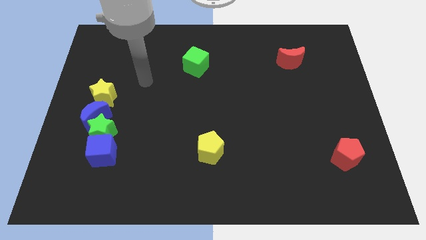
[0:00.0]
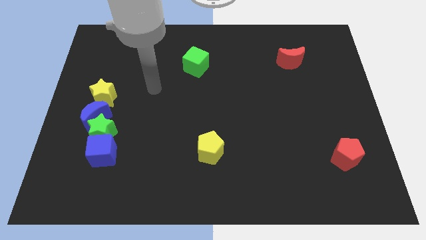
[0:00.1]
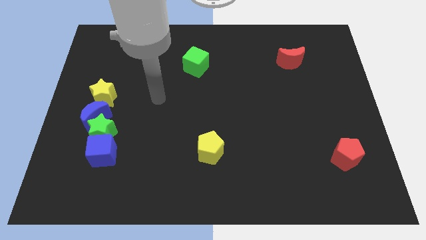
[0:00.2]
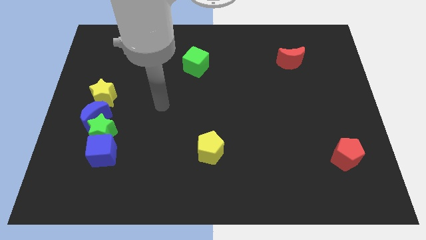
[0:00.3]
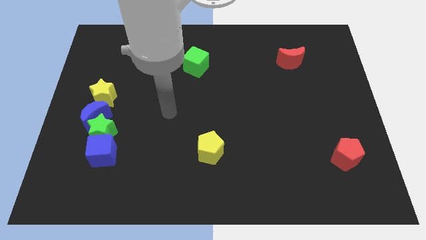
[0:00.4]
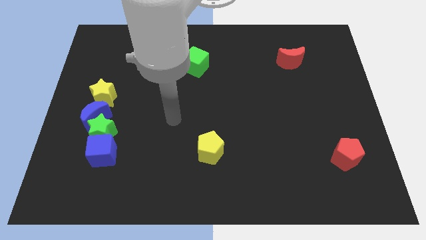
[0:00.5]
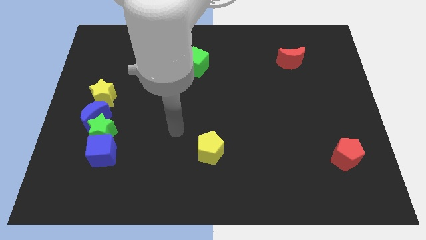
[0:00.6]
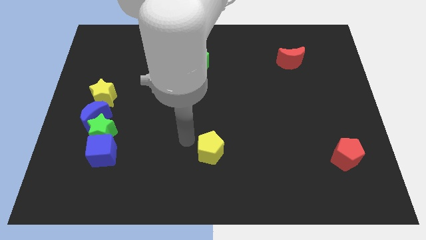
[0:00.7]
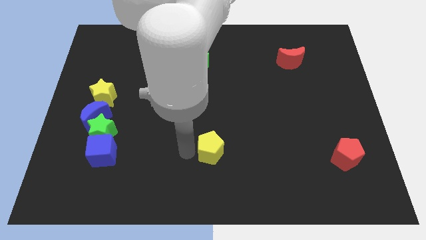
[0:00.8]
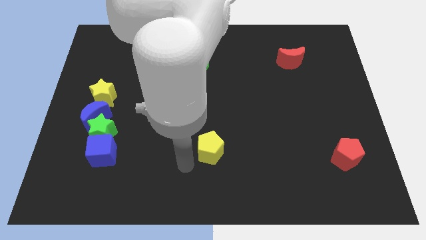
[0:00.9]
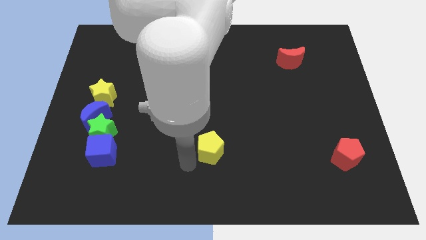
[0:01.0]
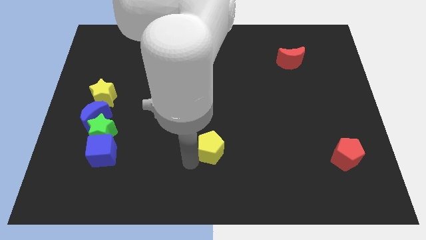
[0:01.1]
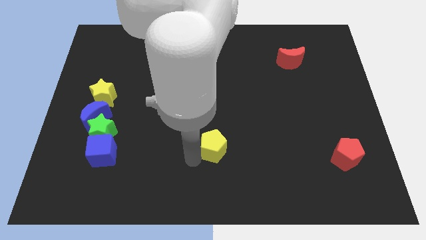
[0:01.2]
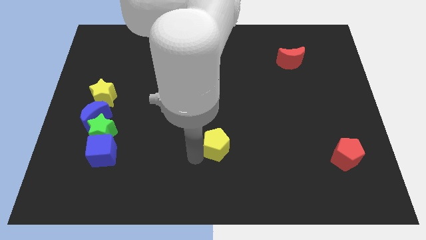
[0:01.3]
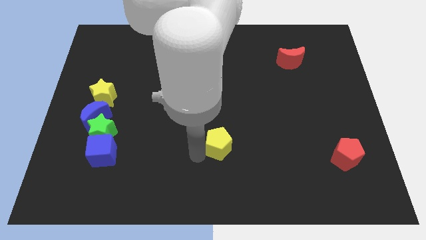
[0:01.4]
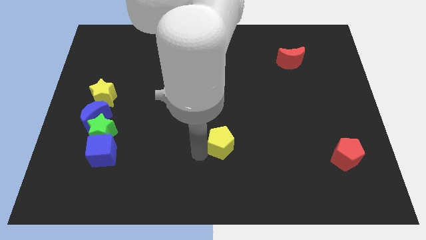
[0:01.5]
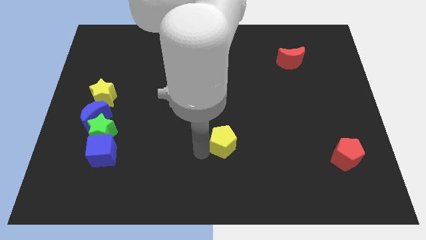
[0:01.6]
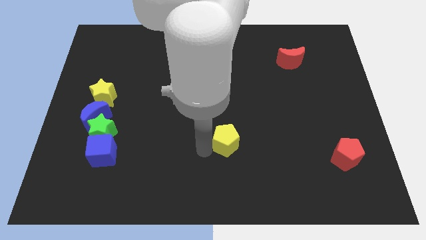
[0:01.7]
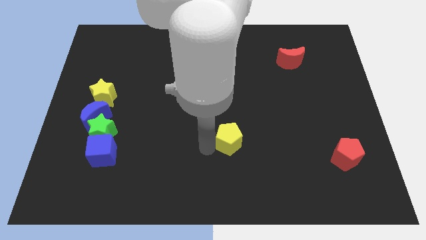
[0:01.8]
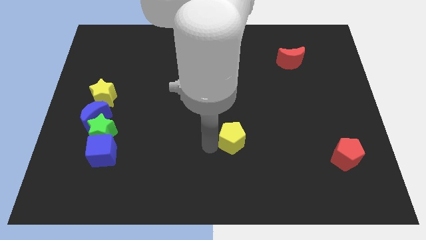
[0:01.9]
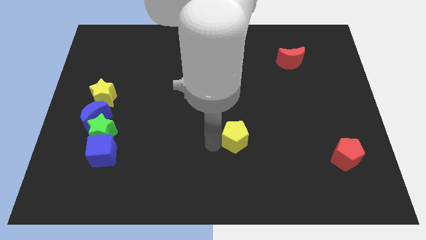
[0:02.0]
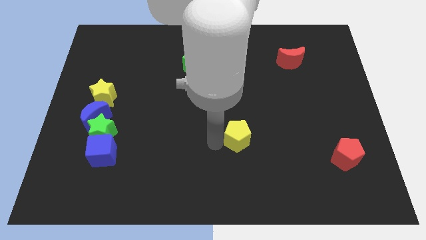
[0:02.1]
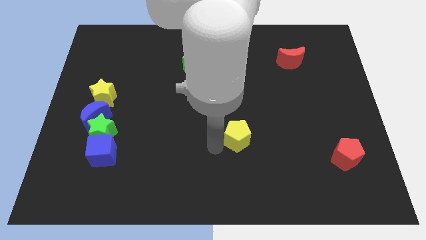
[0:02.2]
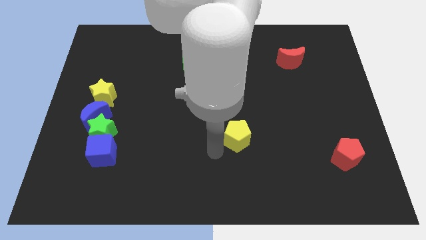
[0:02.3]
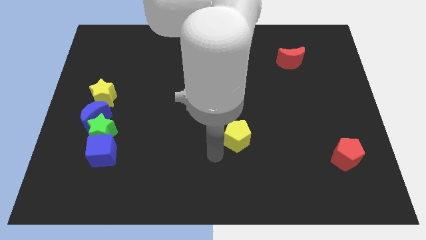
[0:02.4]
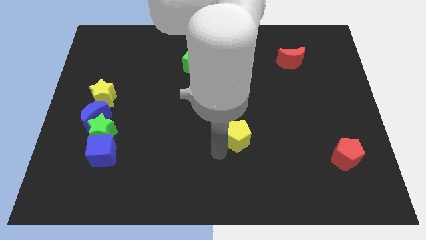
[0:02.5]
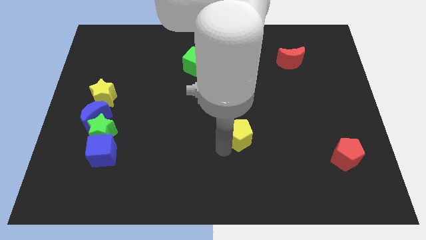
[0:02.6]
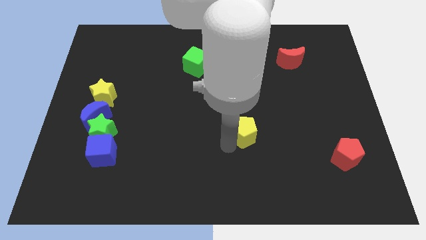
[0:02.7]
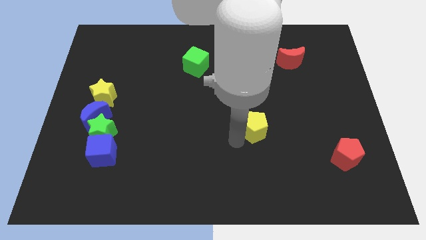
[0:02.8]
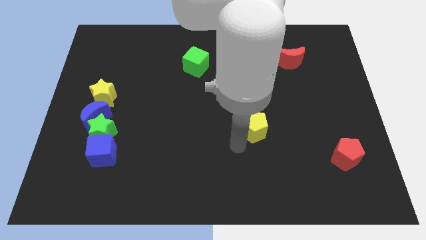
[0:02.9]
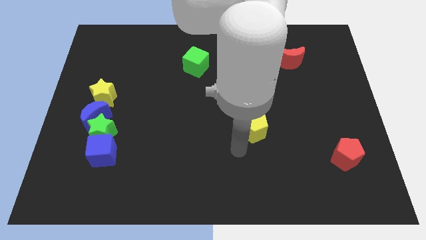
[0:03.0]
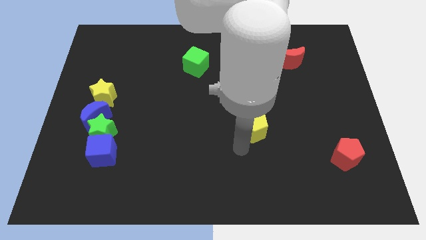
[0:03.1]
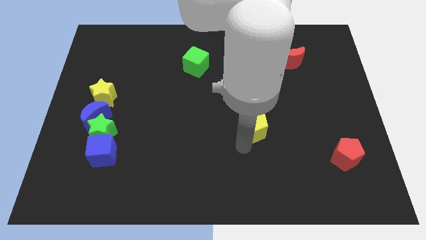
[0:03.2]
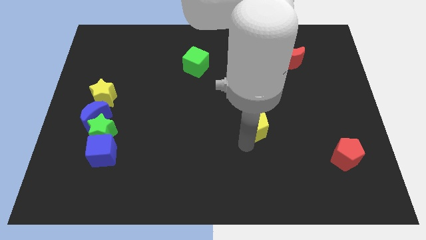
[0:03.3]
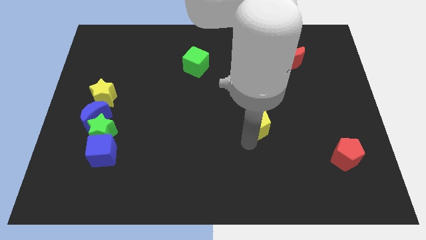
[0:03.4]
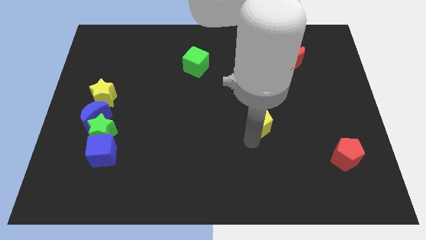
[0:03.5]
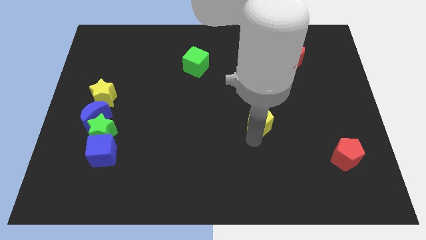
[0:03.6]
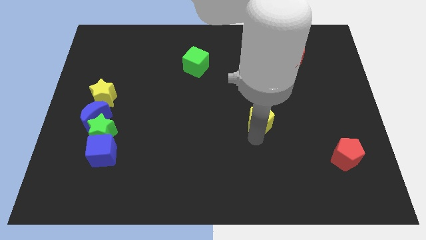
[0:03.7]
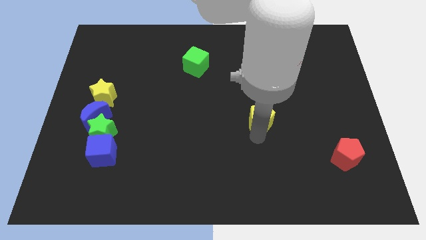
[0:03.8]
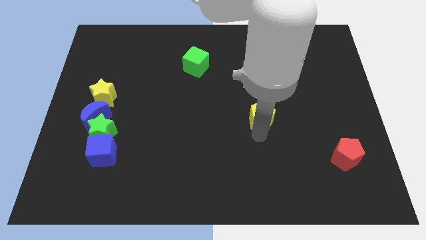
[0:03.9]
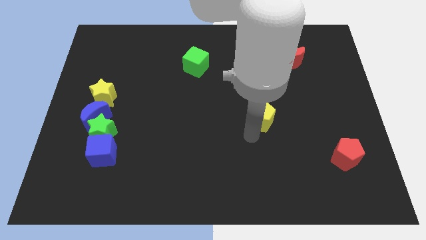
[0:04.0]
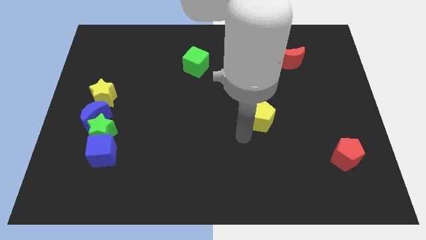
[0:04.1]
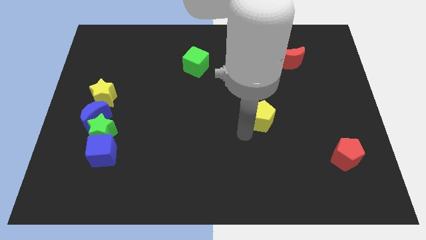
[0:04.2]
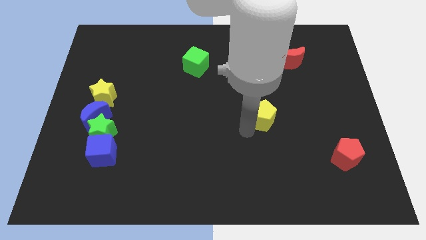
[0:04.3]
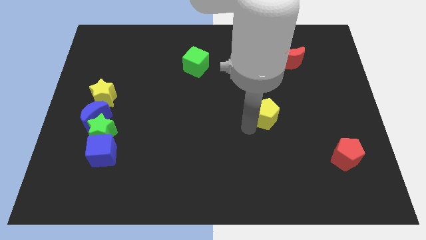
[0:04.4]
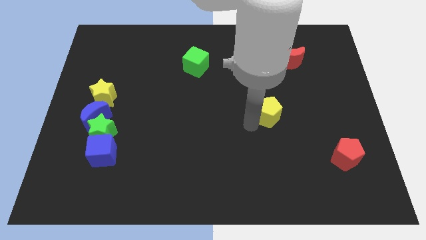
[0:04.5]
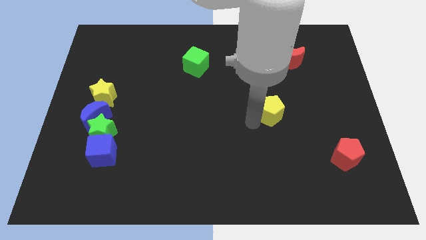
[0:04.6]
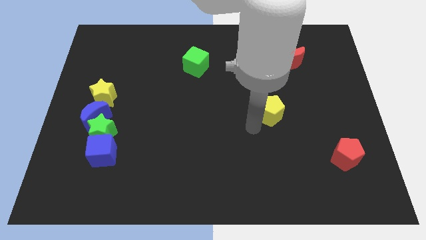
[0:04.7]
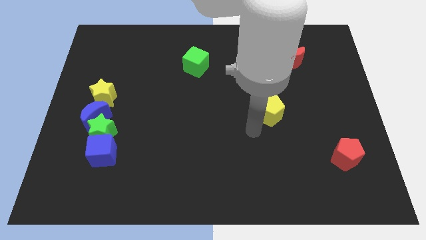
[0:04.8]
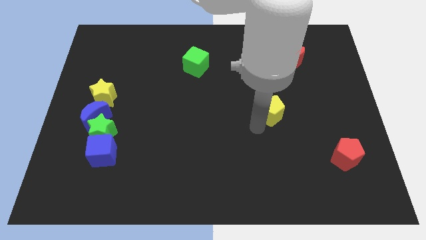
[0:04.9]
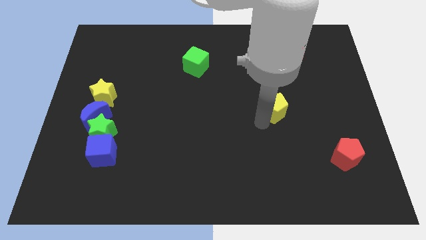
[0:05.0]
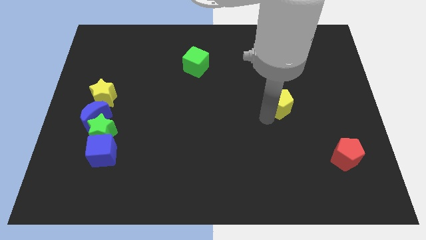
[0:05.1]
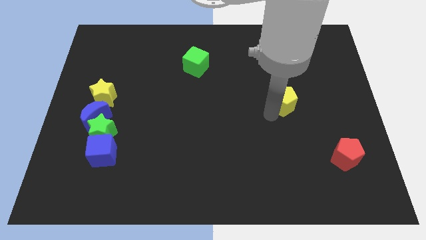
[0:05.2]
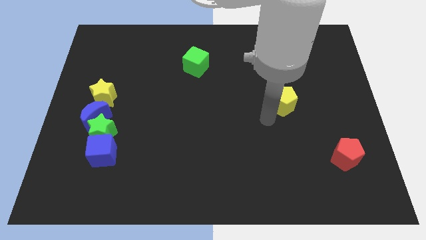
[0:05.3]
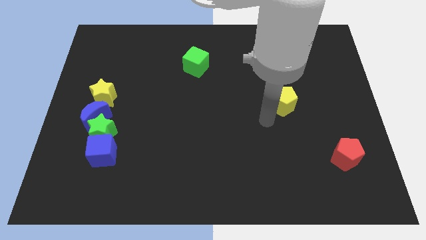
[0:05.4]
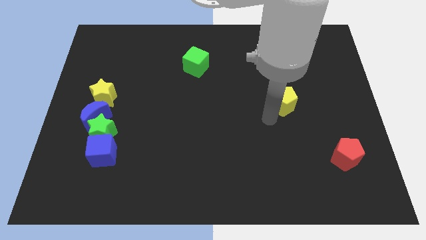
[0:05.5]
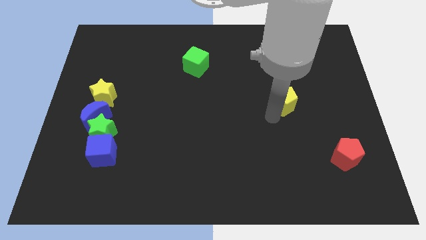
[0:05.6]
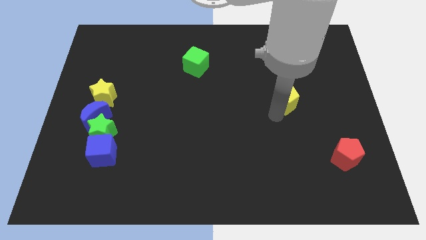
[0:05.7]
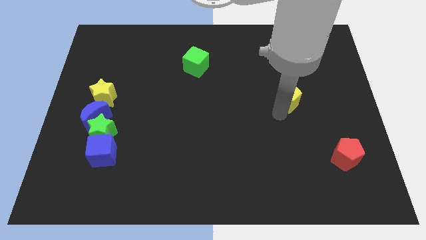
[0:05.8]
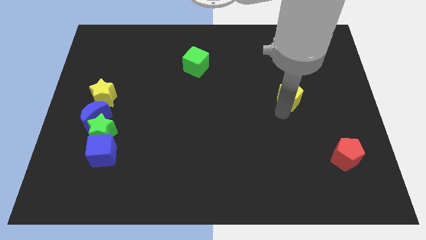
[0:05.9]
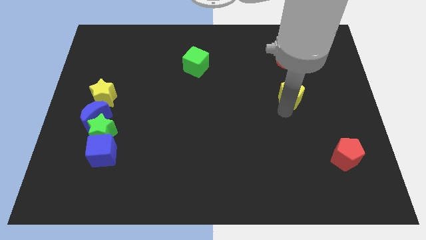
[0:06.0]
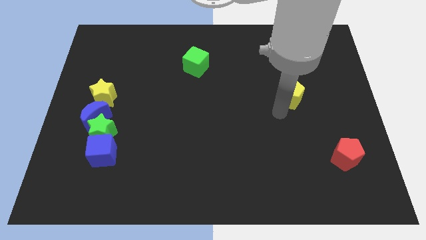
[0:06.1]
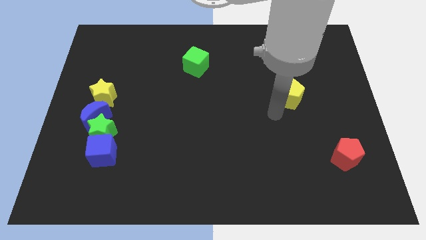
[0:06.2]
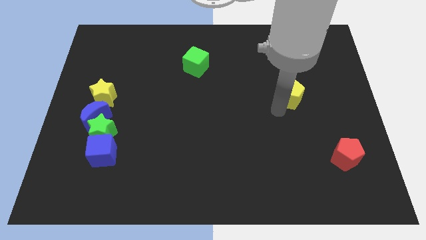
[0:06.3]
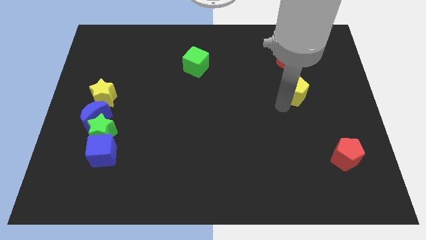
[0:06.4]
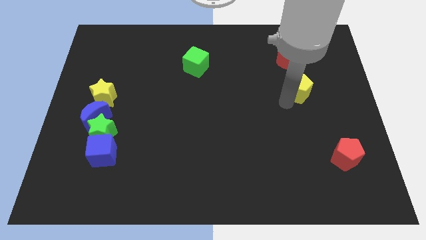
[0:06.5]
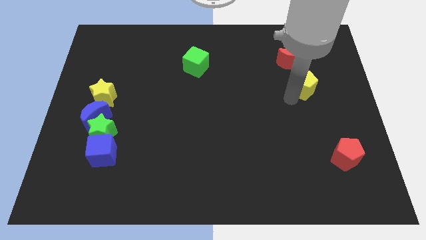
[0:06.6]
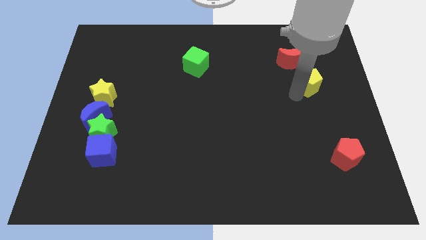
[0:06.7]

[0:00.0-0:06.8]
put the yellow pentagon to the bottom right side of the red moon
